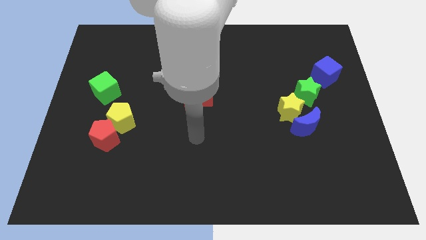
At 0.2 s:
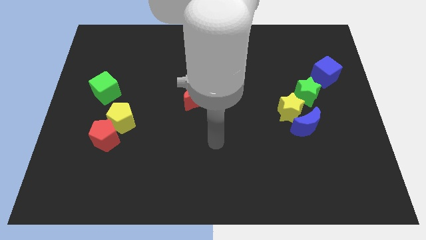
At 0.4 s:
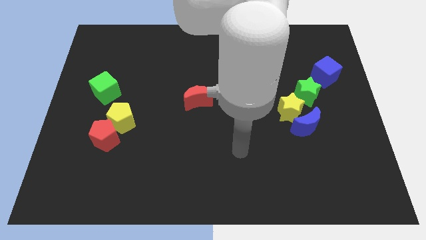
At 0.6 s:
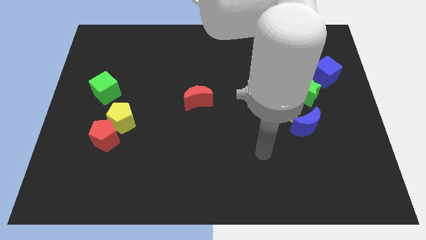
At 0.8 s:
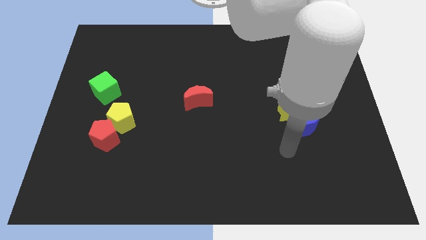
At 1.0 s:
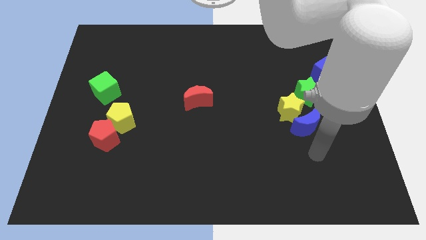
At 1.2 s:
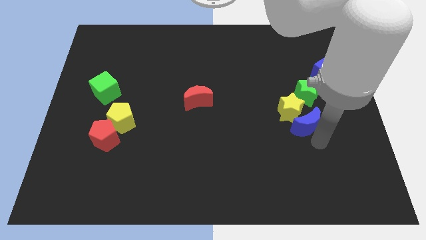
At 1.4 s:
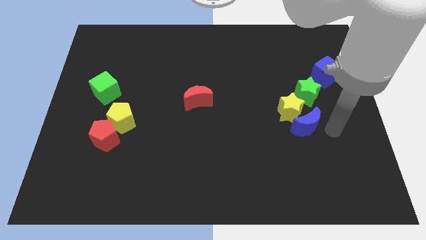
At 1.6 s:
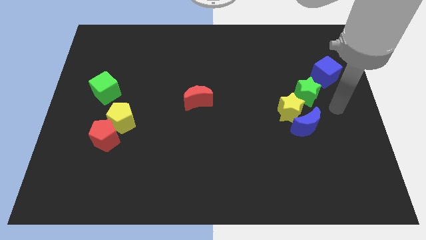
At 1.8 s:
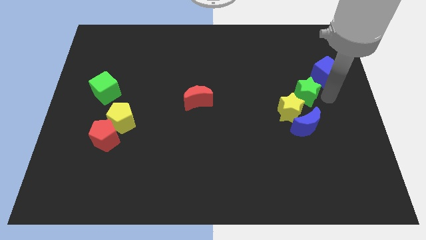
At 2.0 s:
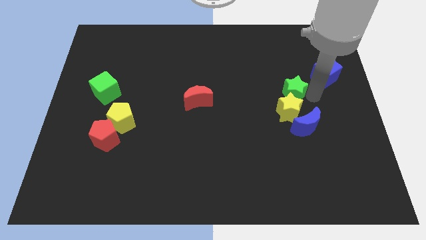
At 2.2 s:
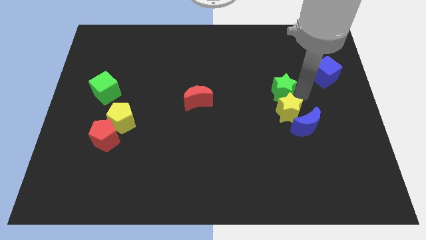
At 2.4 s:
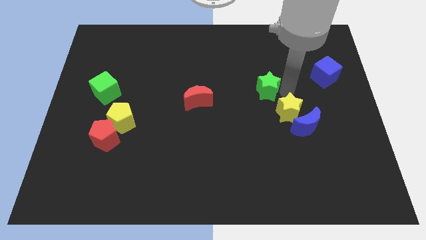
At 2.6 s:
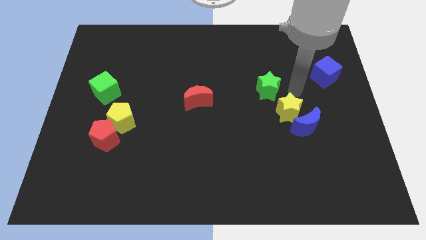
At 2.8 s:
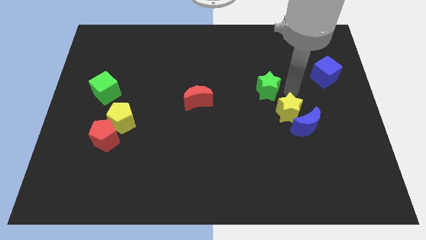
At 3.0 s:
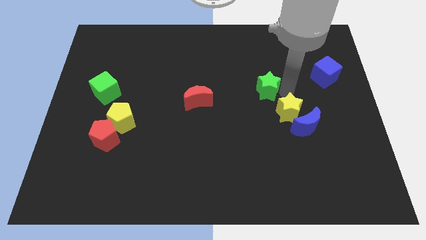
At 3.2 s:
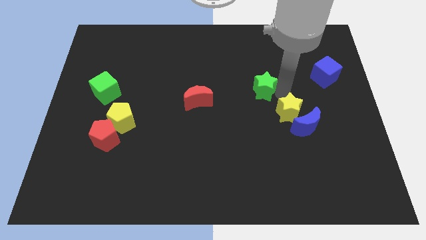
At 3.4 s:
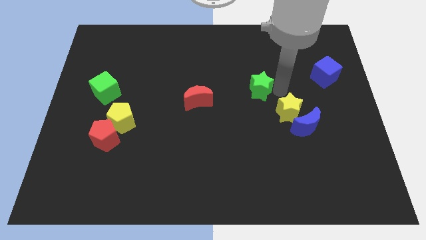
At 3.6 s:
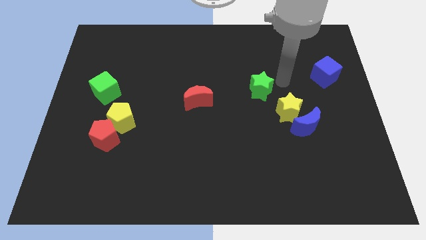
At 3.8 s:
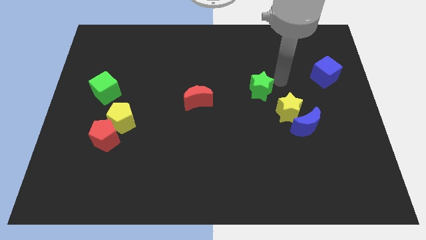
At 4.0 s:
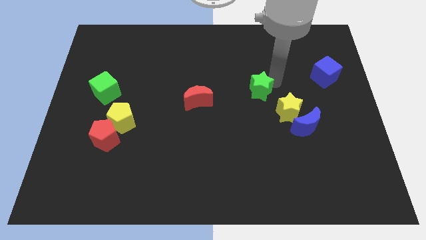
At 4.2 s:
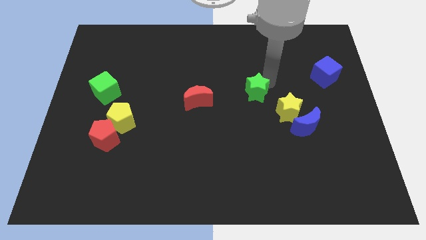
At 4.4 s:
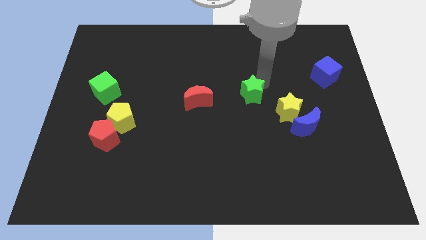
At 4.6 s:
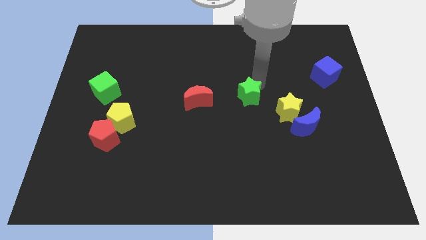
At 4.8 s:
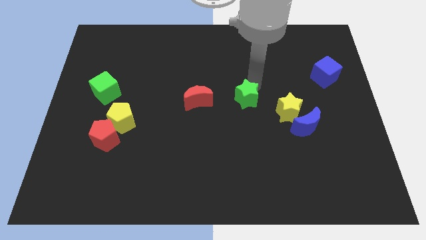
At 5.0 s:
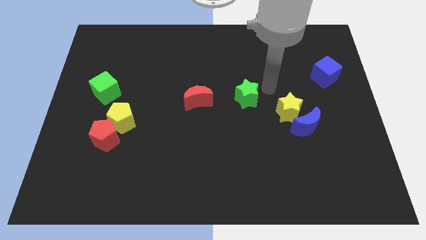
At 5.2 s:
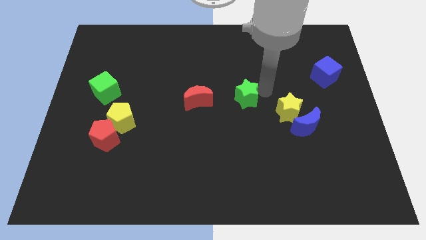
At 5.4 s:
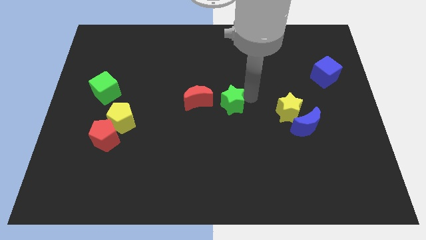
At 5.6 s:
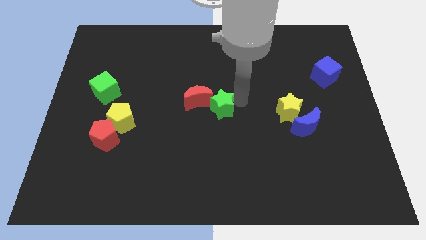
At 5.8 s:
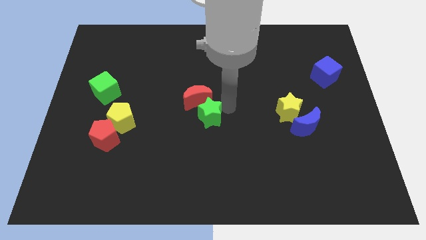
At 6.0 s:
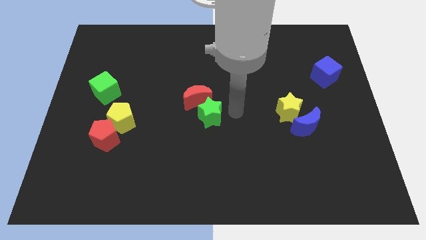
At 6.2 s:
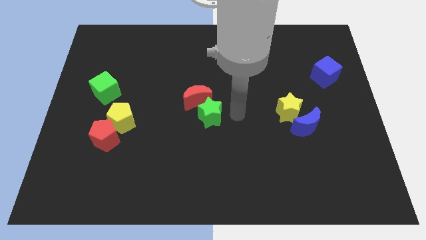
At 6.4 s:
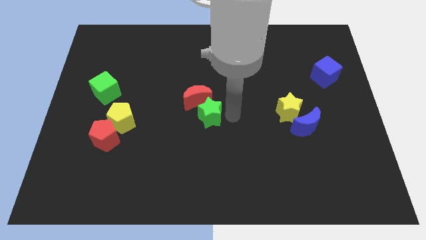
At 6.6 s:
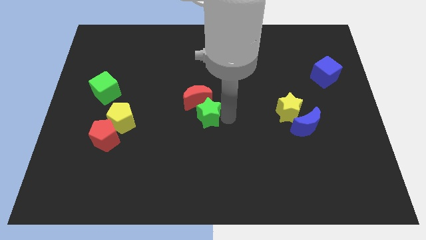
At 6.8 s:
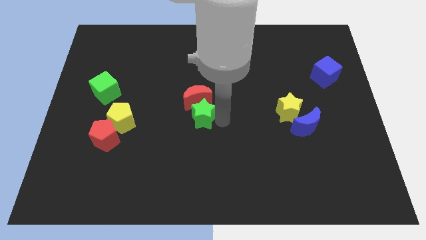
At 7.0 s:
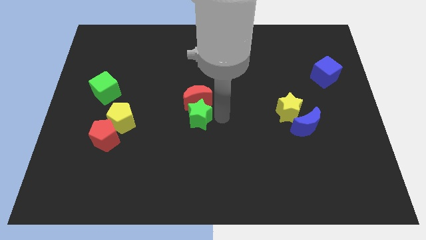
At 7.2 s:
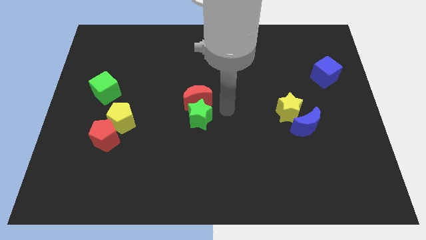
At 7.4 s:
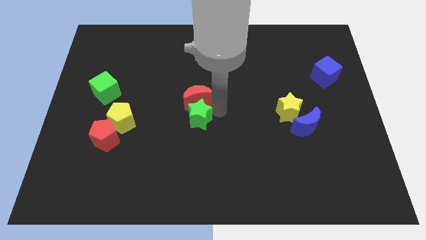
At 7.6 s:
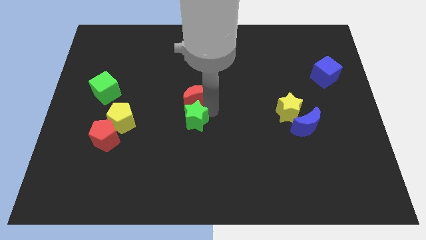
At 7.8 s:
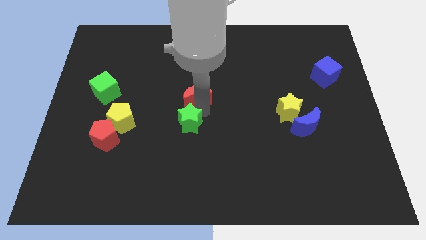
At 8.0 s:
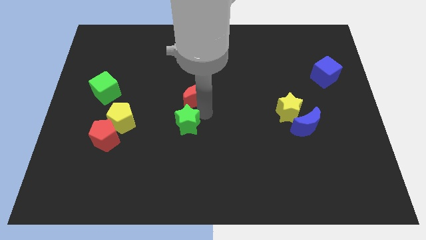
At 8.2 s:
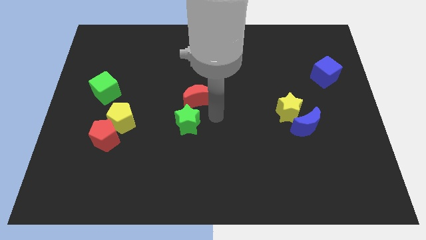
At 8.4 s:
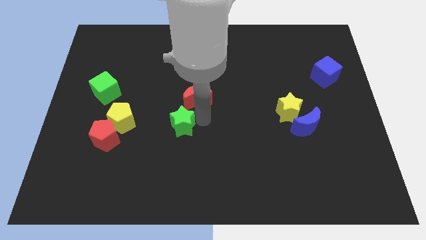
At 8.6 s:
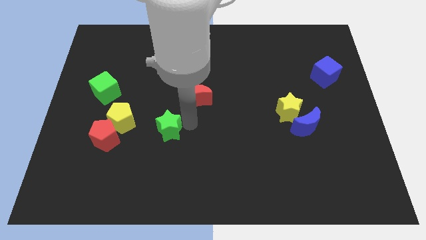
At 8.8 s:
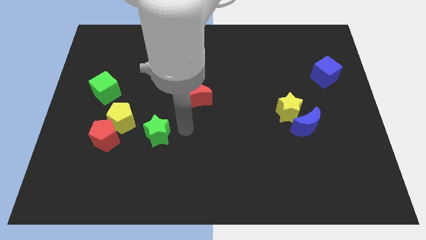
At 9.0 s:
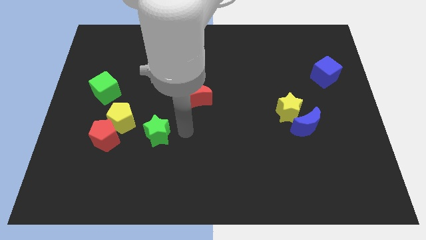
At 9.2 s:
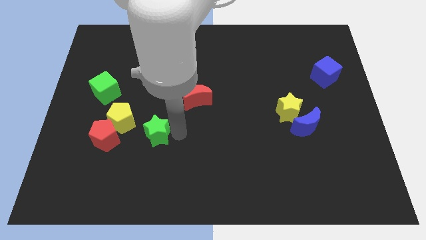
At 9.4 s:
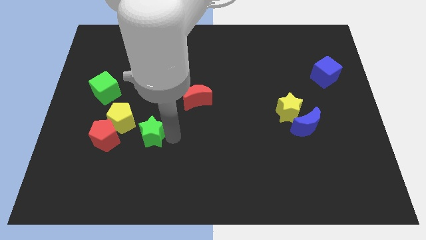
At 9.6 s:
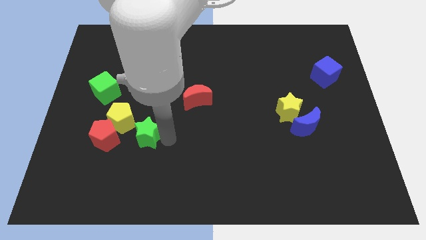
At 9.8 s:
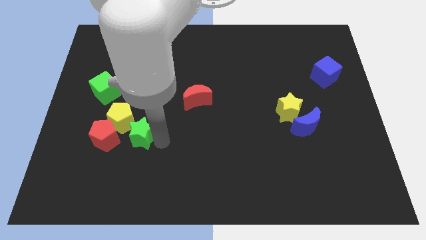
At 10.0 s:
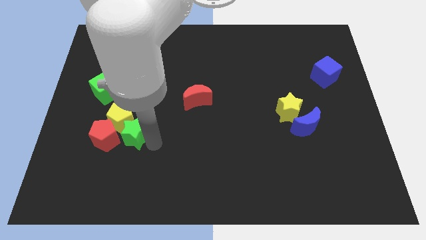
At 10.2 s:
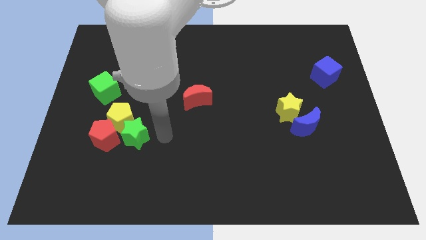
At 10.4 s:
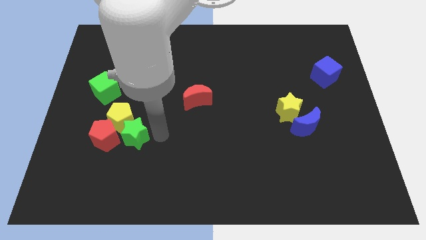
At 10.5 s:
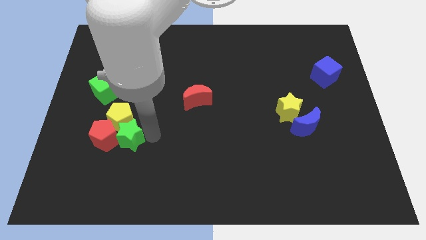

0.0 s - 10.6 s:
move the green star next to the red pentagon

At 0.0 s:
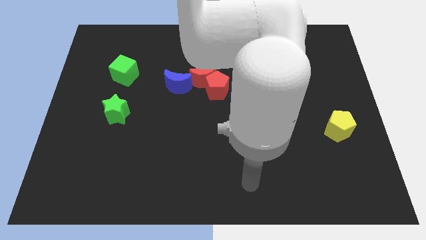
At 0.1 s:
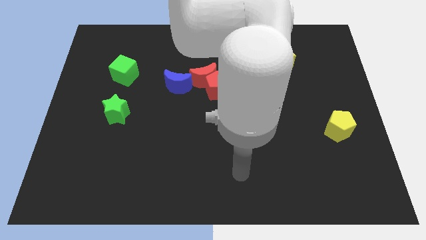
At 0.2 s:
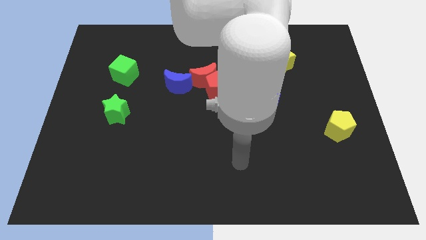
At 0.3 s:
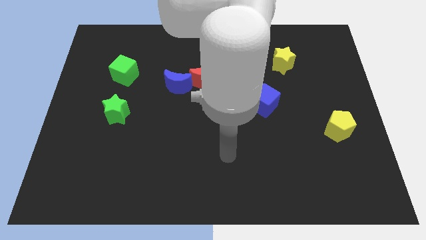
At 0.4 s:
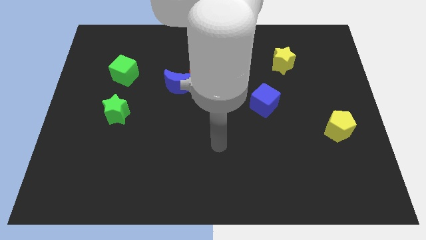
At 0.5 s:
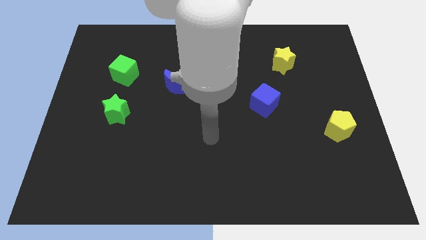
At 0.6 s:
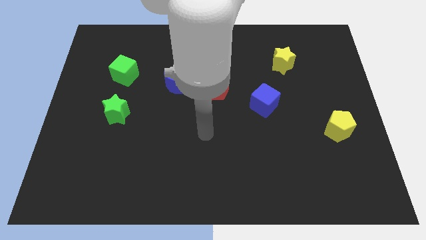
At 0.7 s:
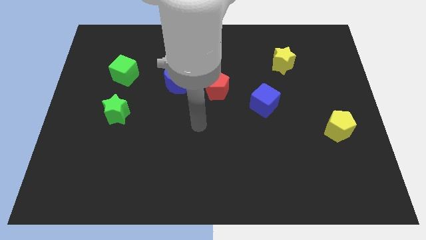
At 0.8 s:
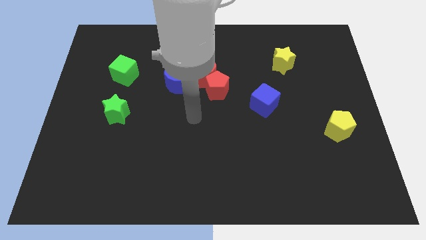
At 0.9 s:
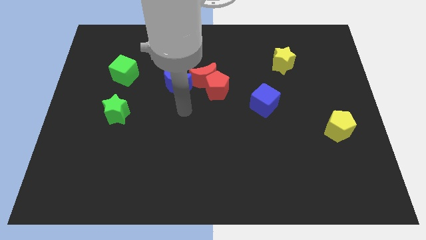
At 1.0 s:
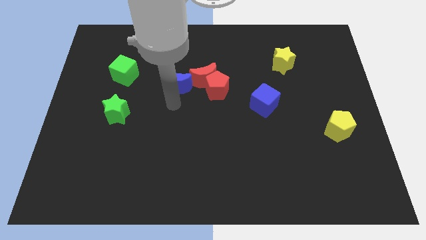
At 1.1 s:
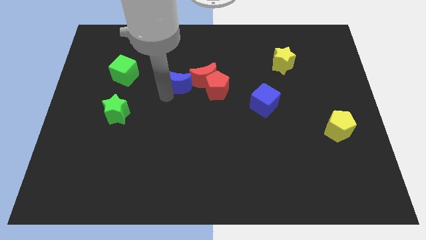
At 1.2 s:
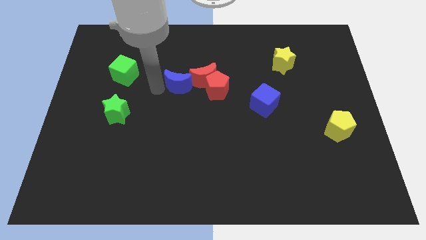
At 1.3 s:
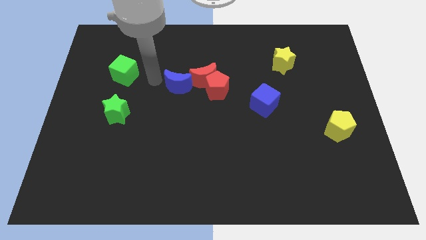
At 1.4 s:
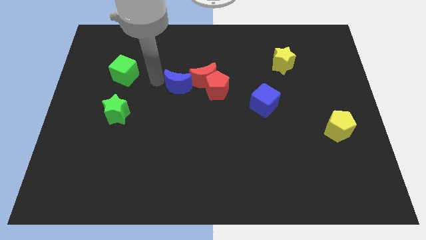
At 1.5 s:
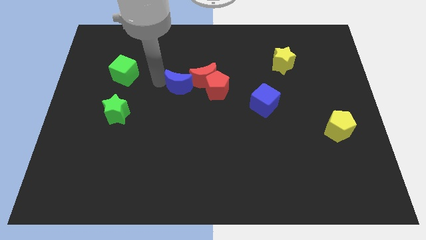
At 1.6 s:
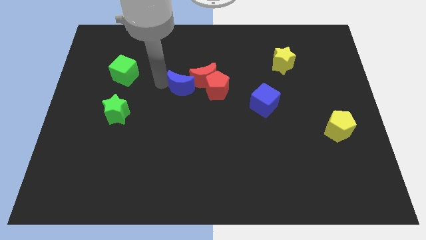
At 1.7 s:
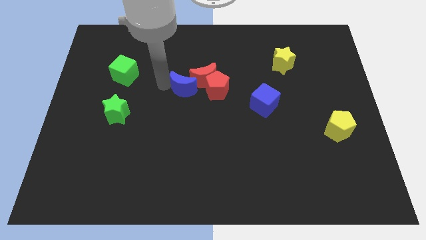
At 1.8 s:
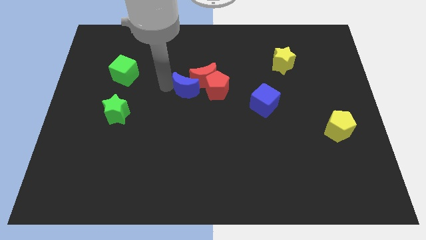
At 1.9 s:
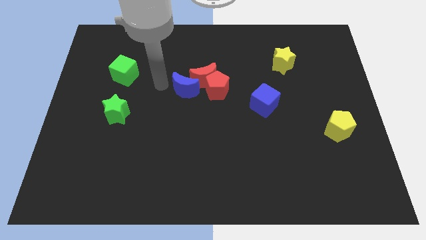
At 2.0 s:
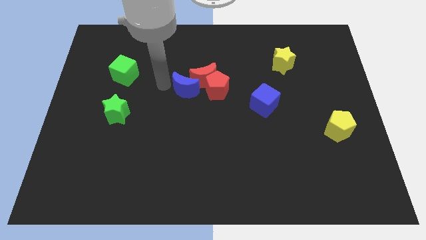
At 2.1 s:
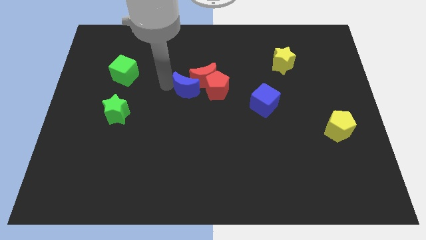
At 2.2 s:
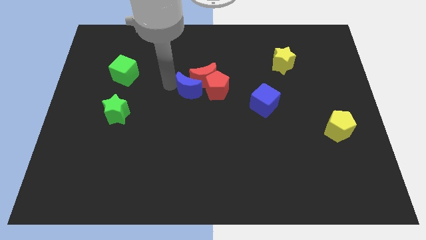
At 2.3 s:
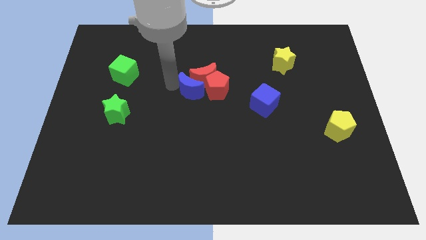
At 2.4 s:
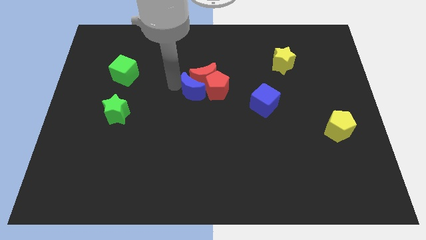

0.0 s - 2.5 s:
move the blue moon towards the red pentagon
